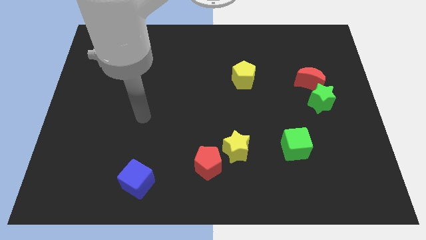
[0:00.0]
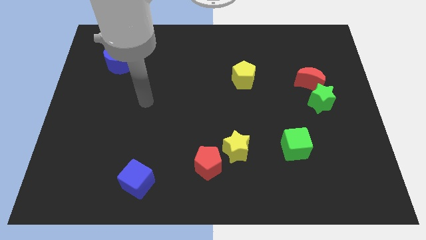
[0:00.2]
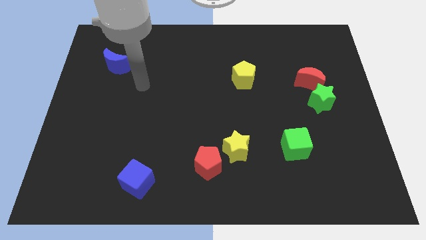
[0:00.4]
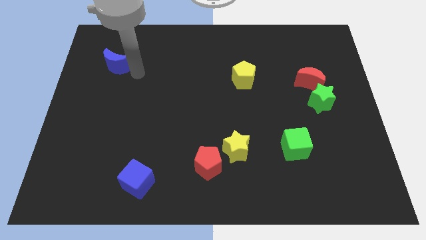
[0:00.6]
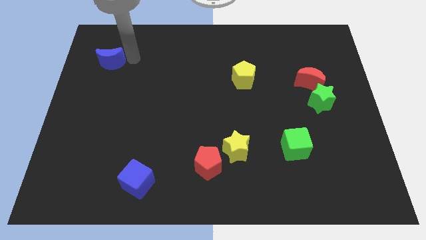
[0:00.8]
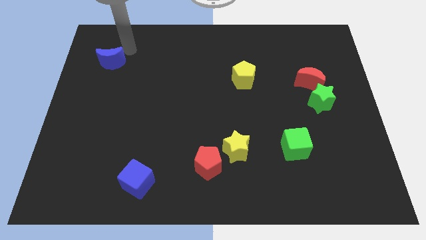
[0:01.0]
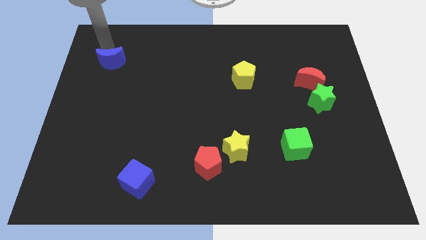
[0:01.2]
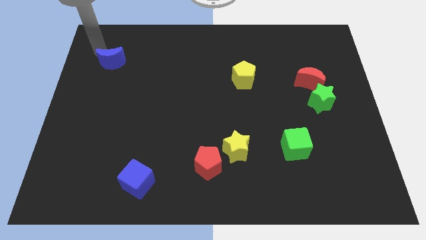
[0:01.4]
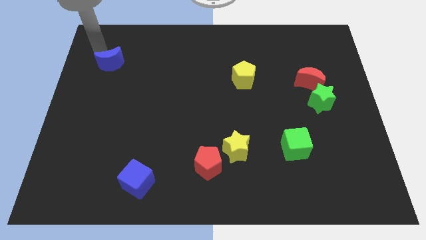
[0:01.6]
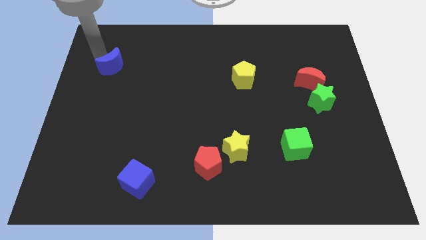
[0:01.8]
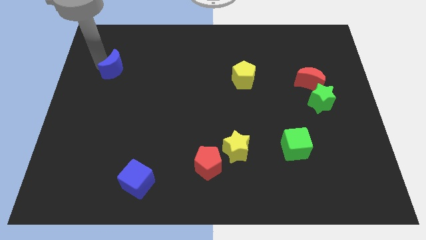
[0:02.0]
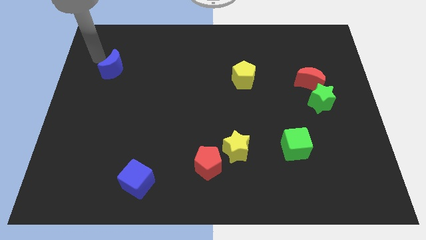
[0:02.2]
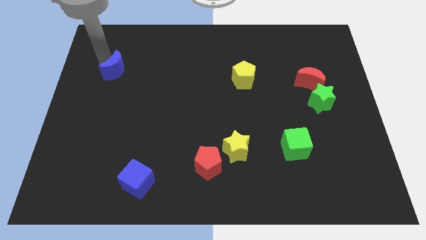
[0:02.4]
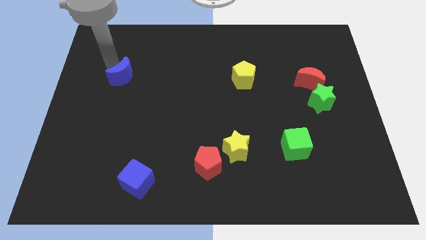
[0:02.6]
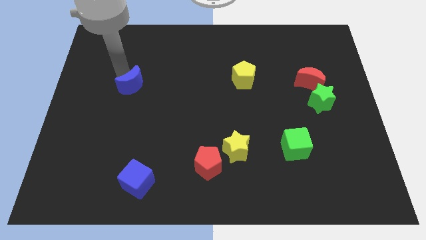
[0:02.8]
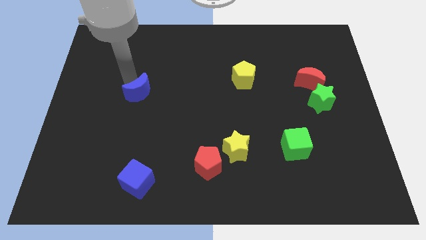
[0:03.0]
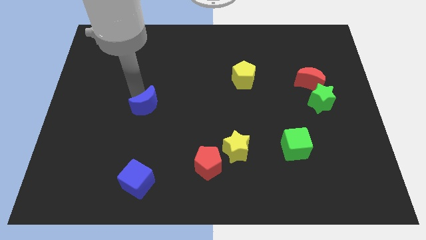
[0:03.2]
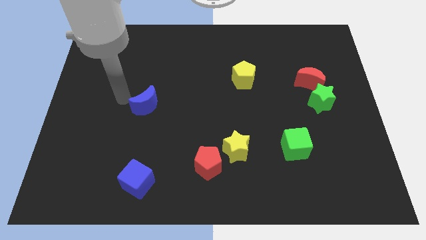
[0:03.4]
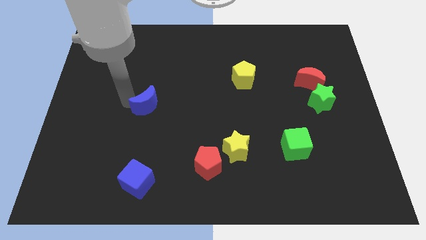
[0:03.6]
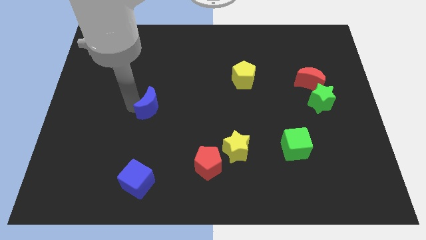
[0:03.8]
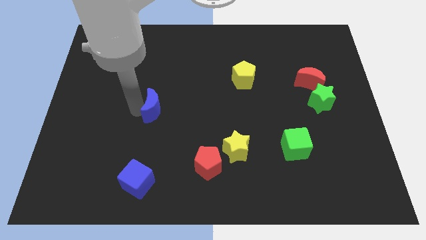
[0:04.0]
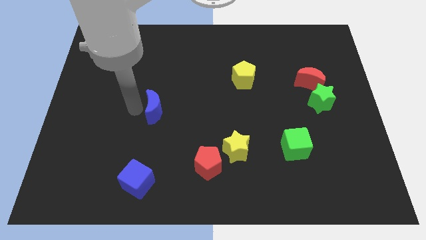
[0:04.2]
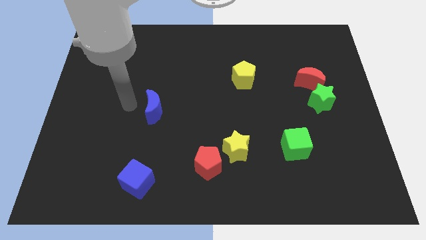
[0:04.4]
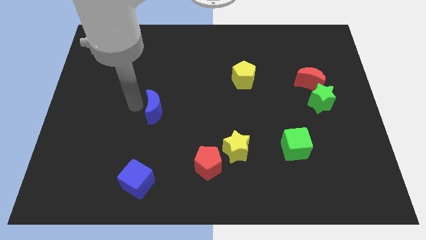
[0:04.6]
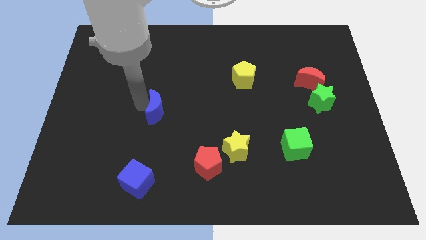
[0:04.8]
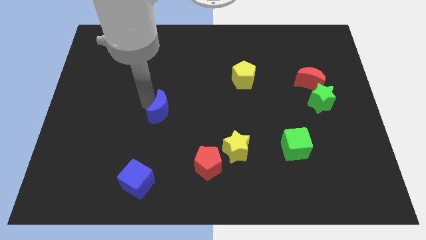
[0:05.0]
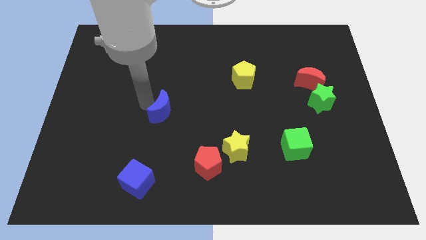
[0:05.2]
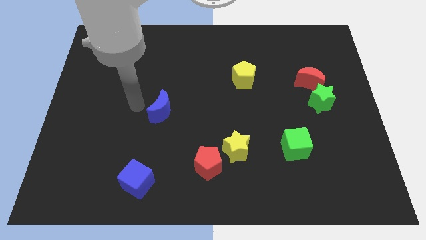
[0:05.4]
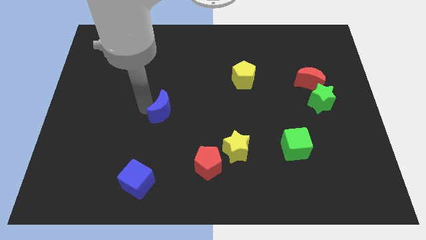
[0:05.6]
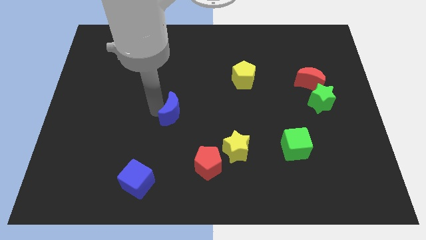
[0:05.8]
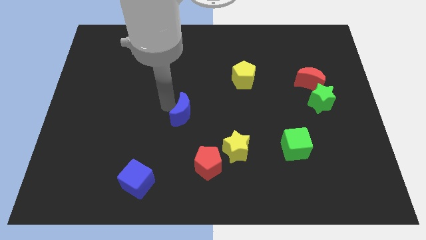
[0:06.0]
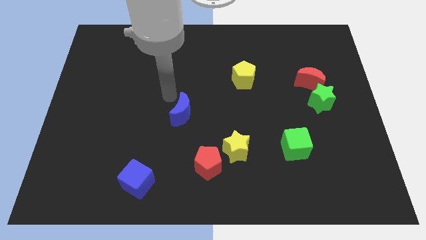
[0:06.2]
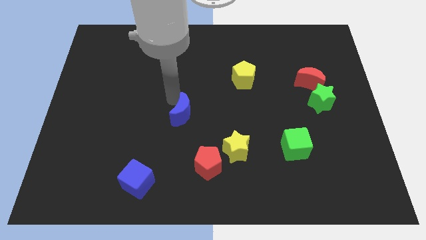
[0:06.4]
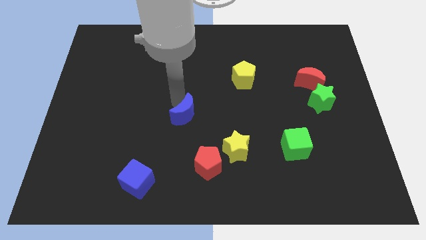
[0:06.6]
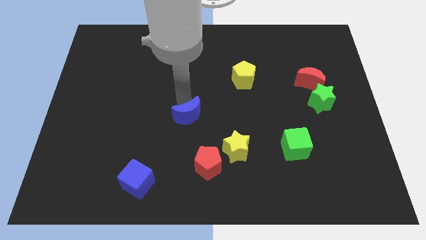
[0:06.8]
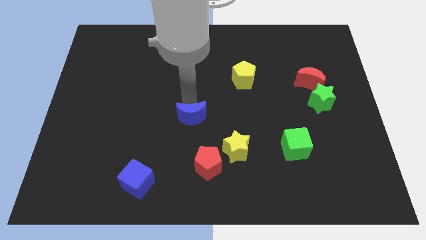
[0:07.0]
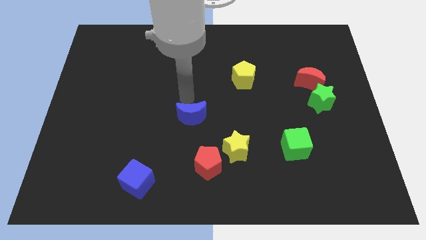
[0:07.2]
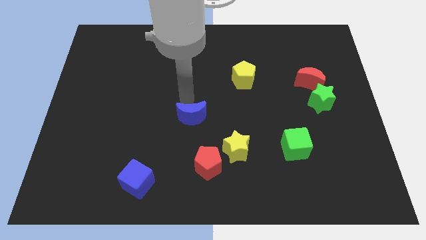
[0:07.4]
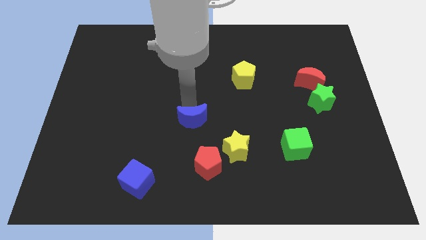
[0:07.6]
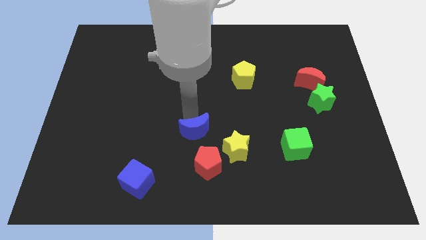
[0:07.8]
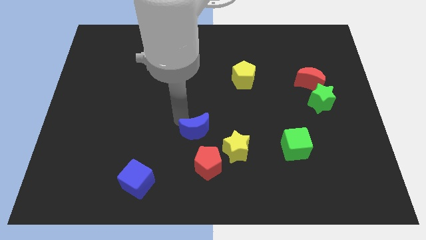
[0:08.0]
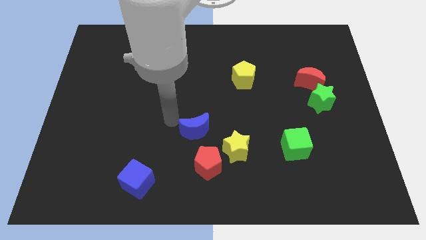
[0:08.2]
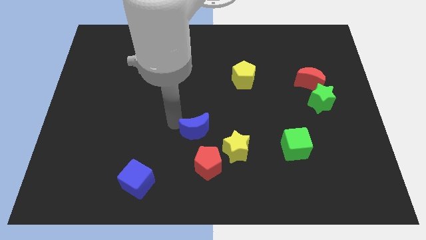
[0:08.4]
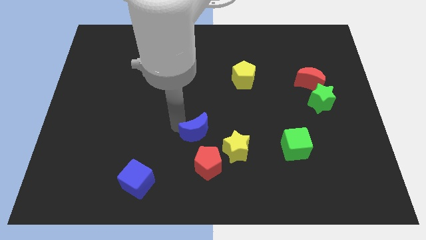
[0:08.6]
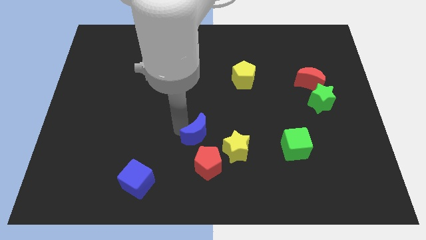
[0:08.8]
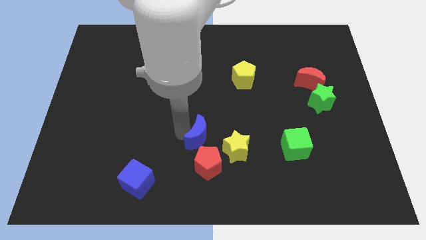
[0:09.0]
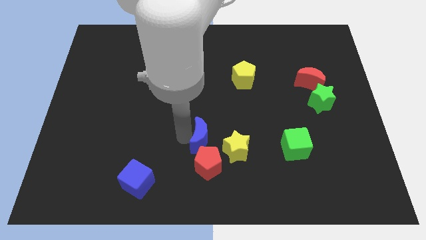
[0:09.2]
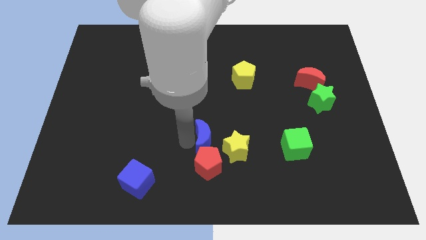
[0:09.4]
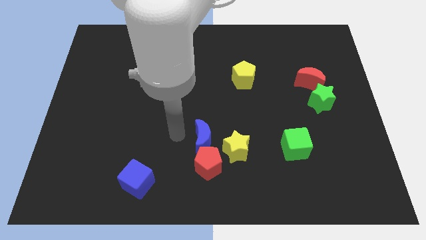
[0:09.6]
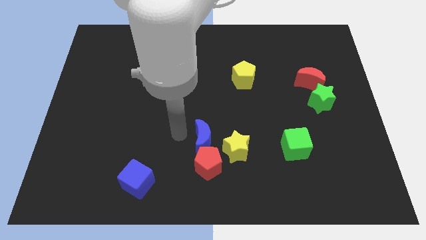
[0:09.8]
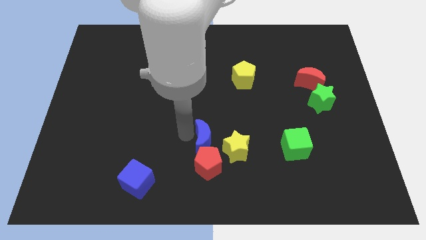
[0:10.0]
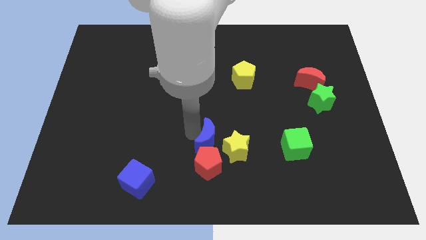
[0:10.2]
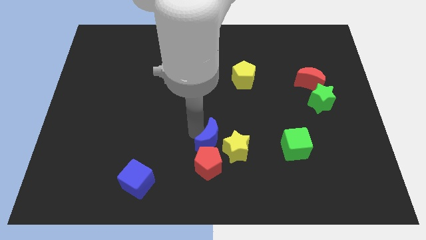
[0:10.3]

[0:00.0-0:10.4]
slide the blue moon to the yellow star

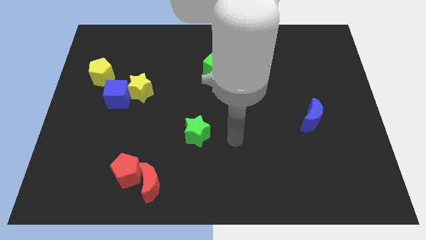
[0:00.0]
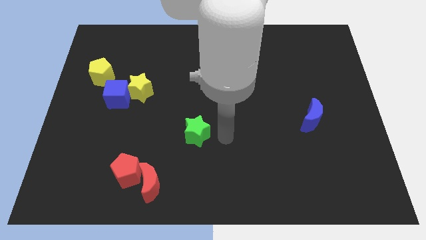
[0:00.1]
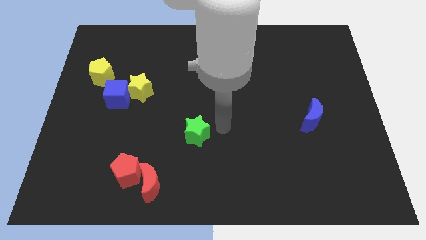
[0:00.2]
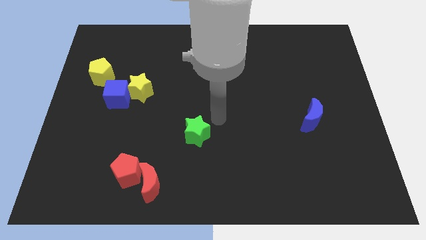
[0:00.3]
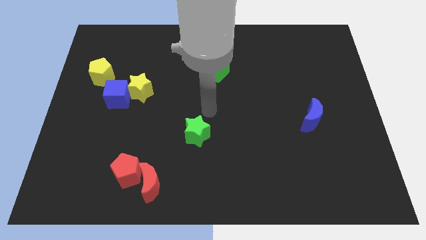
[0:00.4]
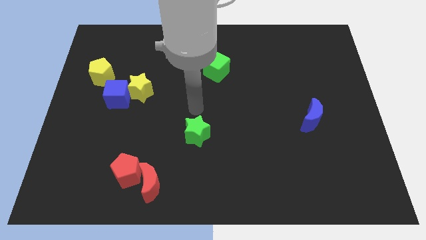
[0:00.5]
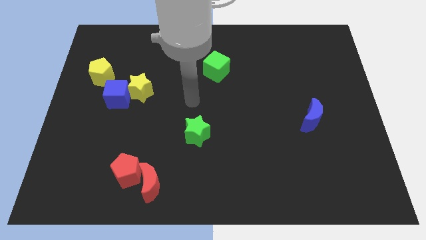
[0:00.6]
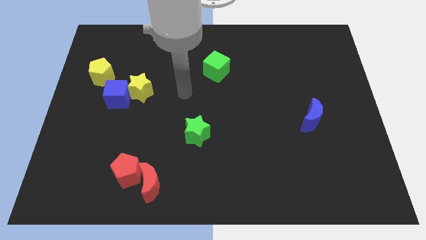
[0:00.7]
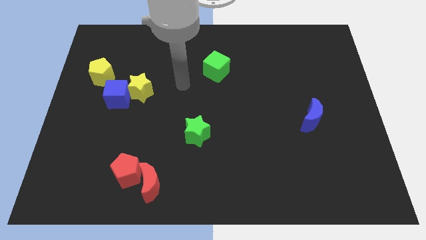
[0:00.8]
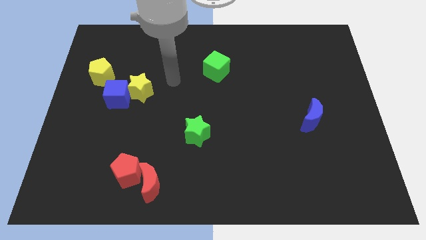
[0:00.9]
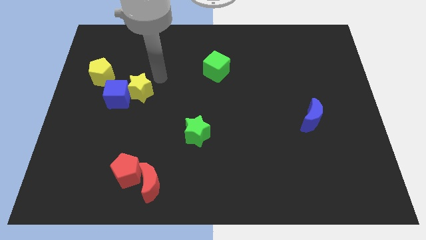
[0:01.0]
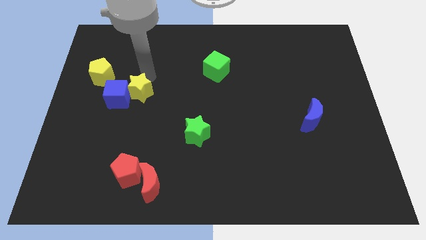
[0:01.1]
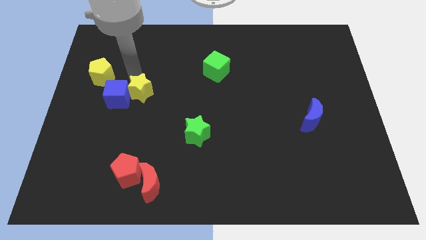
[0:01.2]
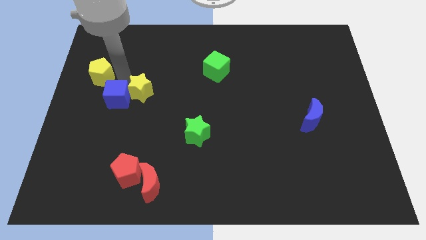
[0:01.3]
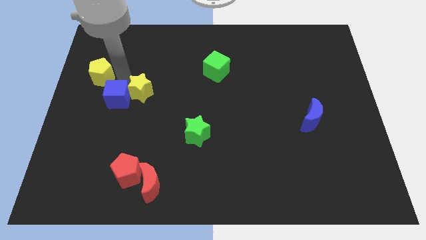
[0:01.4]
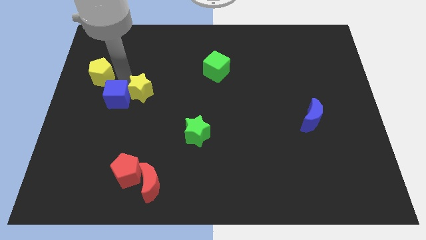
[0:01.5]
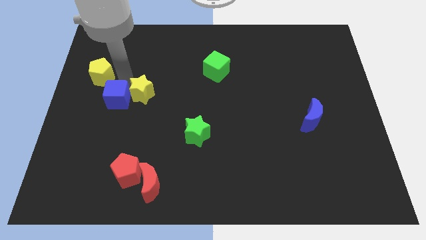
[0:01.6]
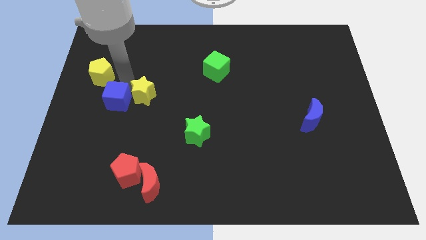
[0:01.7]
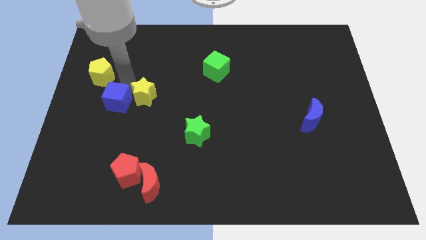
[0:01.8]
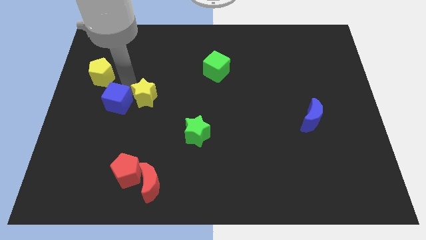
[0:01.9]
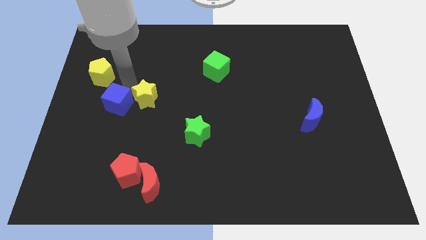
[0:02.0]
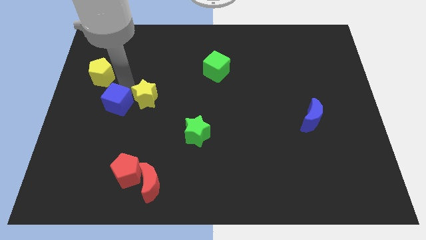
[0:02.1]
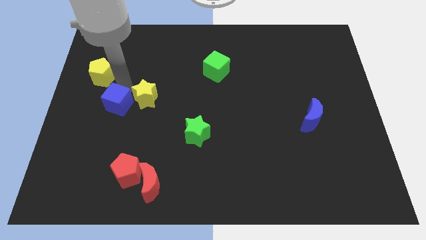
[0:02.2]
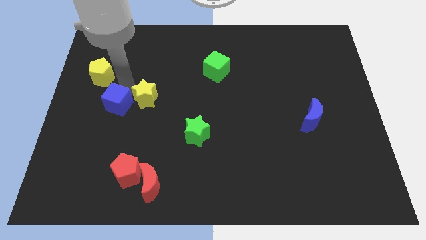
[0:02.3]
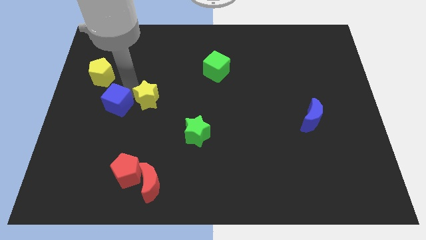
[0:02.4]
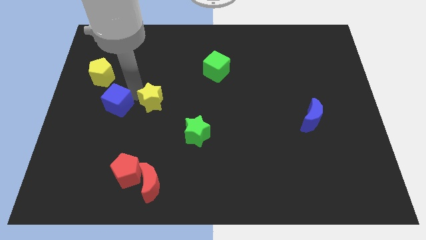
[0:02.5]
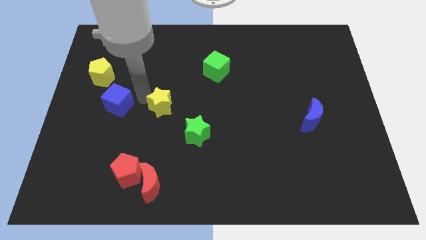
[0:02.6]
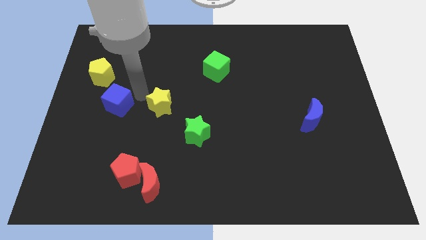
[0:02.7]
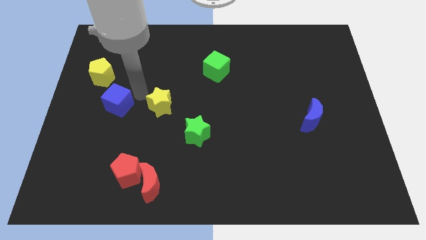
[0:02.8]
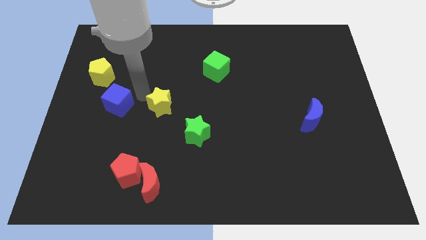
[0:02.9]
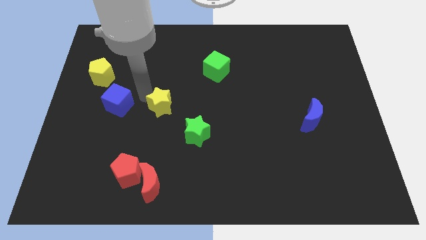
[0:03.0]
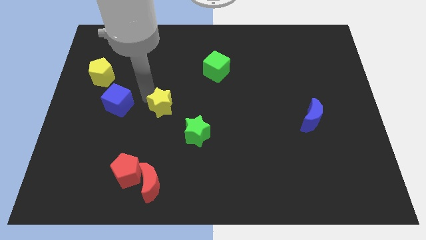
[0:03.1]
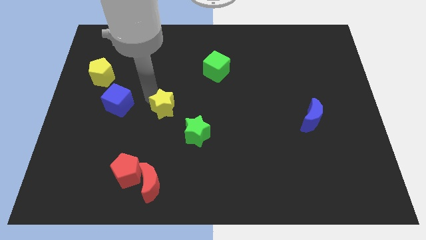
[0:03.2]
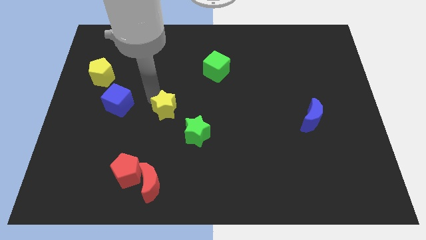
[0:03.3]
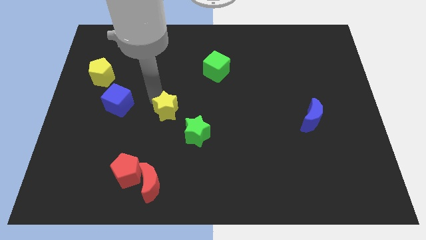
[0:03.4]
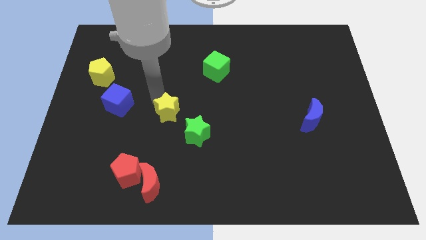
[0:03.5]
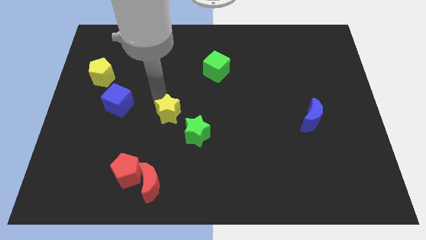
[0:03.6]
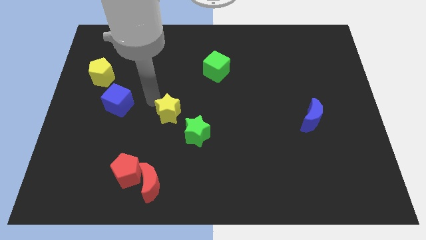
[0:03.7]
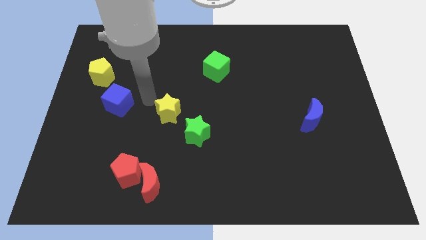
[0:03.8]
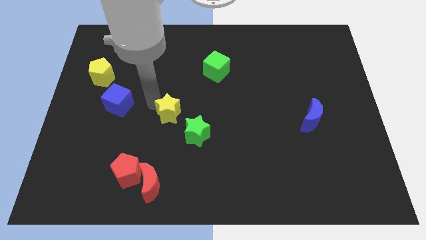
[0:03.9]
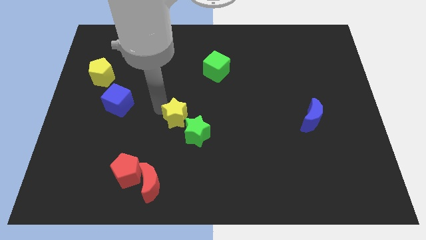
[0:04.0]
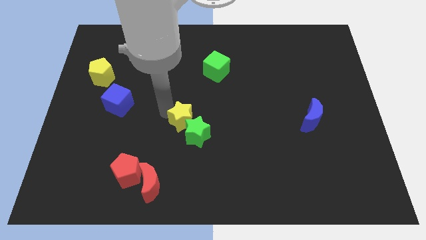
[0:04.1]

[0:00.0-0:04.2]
put the yellow star next to the green star
